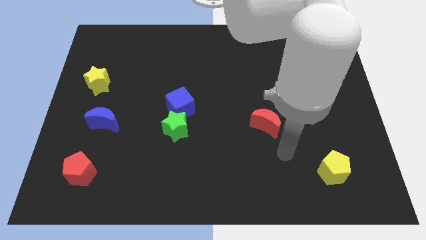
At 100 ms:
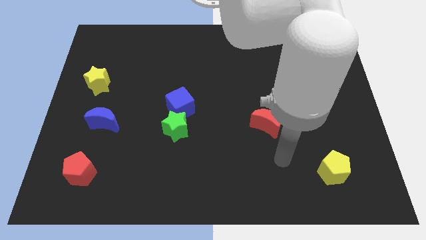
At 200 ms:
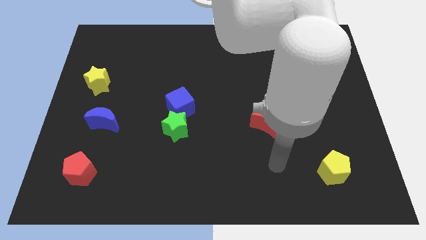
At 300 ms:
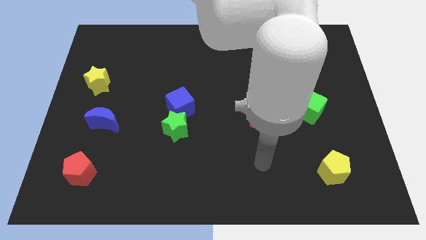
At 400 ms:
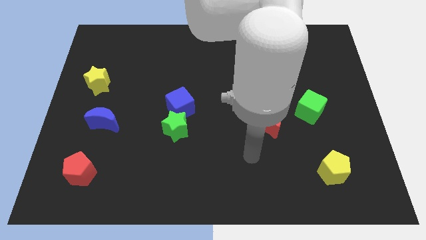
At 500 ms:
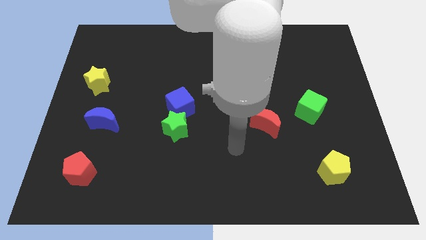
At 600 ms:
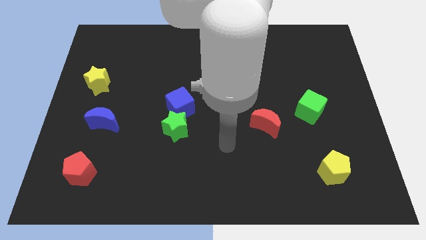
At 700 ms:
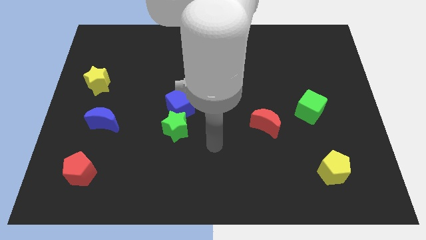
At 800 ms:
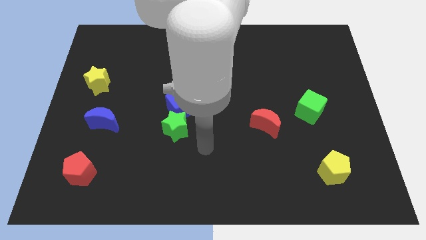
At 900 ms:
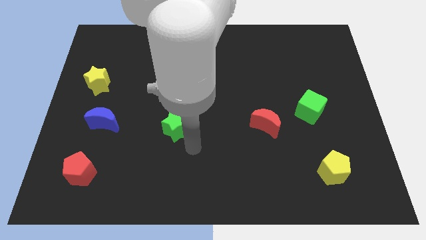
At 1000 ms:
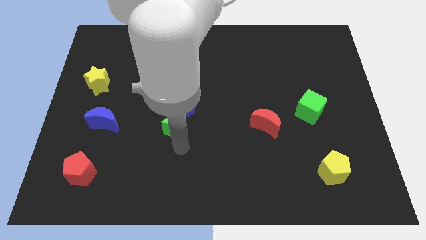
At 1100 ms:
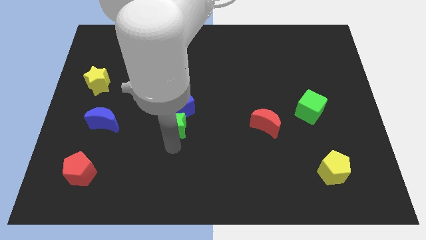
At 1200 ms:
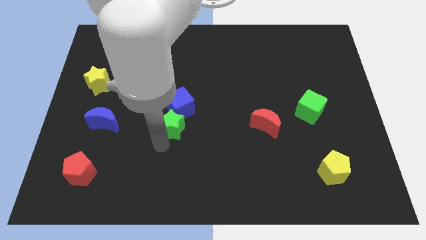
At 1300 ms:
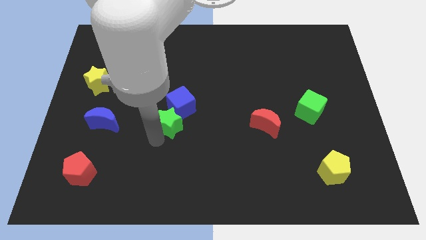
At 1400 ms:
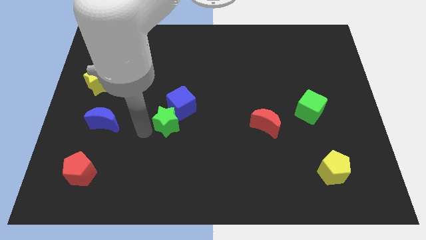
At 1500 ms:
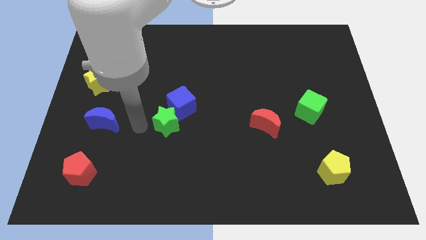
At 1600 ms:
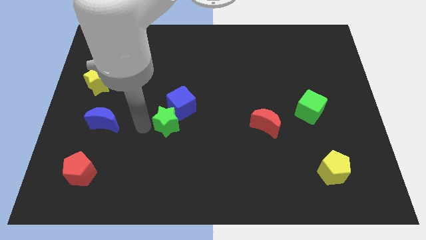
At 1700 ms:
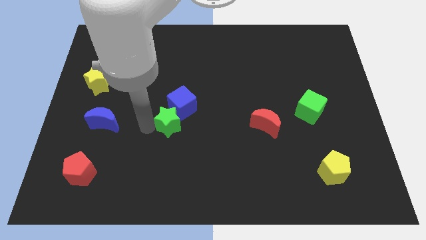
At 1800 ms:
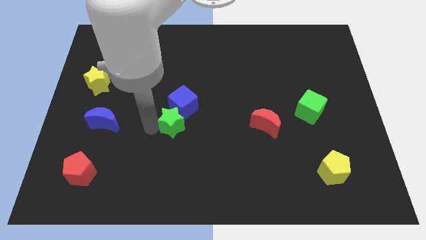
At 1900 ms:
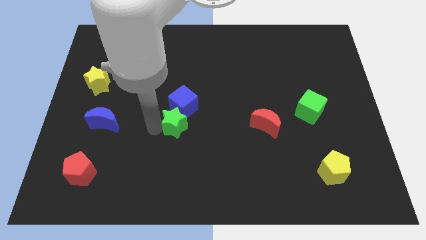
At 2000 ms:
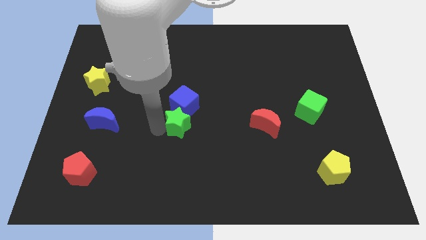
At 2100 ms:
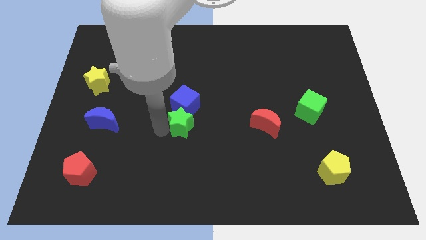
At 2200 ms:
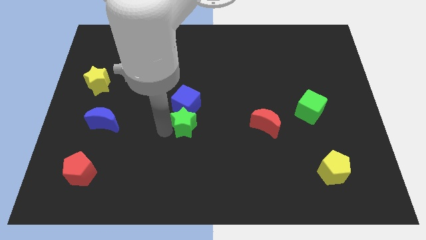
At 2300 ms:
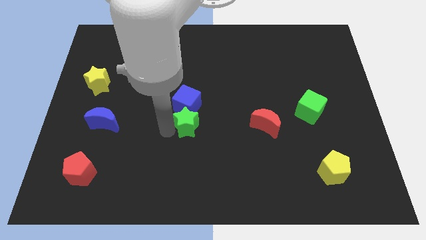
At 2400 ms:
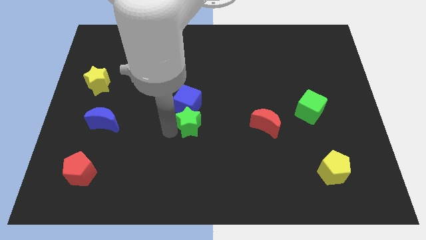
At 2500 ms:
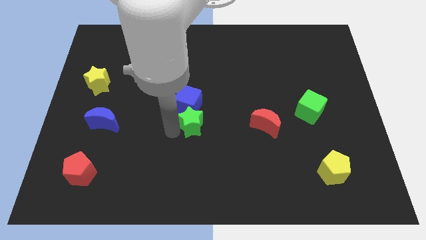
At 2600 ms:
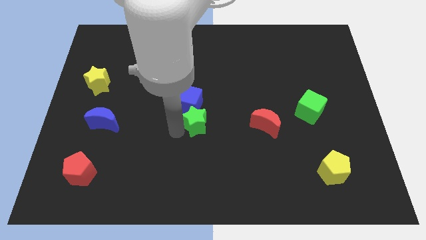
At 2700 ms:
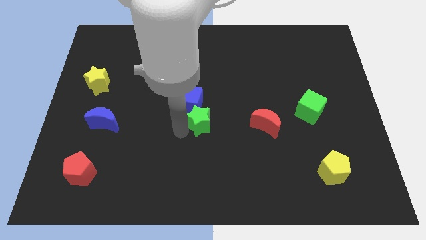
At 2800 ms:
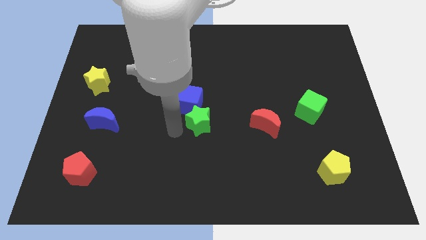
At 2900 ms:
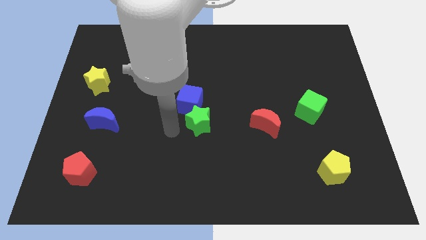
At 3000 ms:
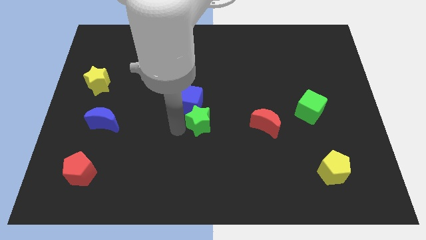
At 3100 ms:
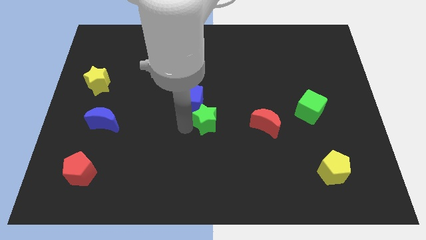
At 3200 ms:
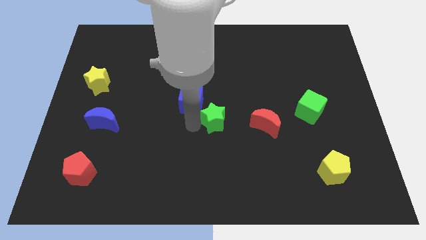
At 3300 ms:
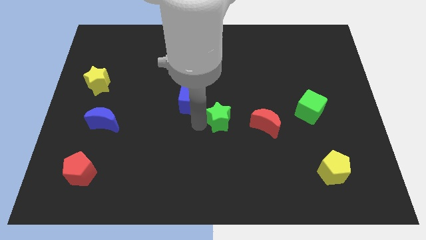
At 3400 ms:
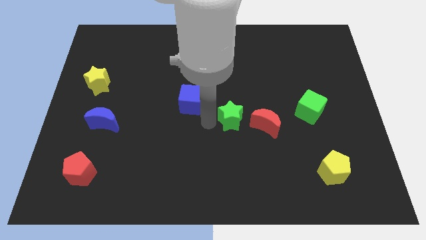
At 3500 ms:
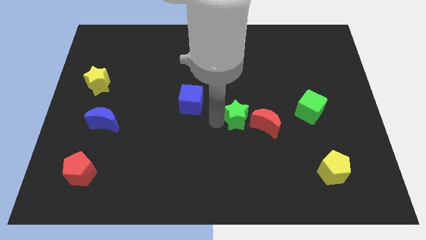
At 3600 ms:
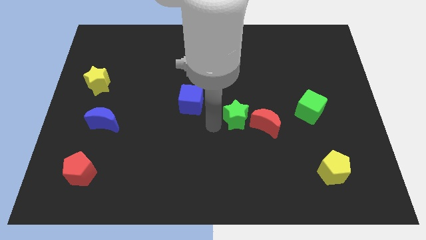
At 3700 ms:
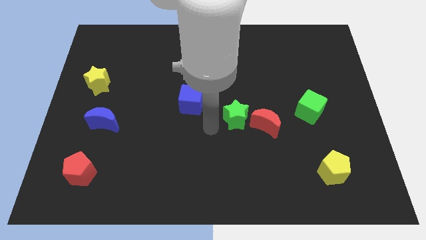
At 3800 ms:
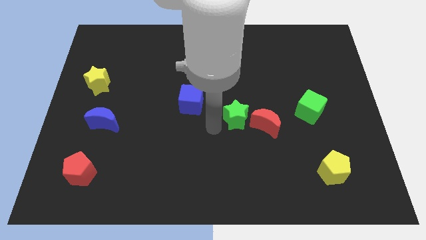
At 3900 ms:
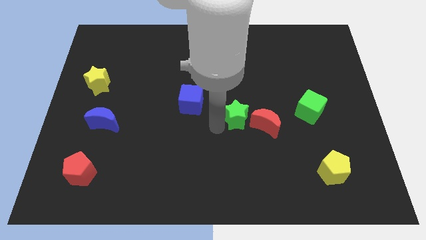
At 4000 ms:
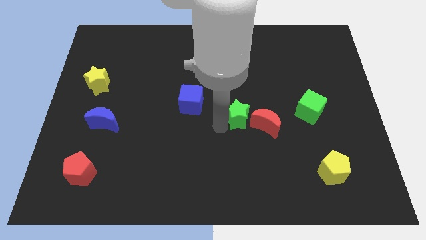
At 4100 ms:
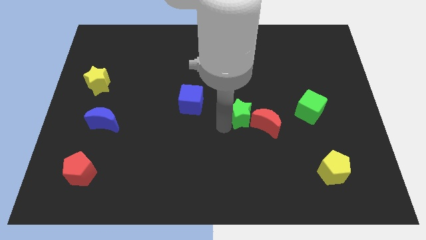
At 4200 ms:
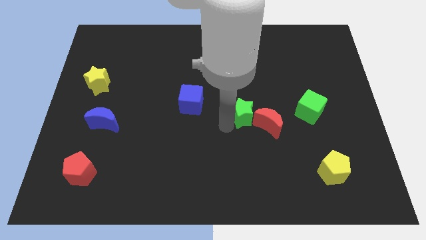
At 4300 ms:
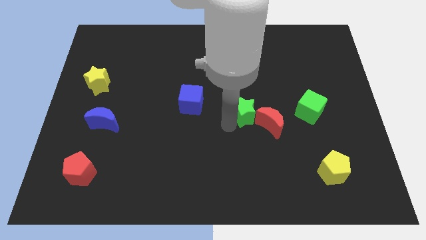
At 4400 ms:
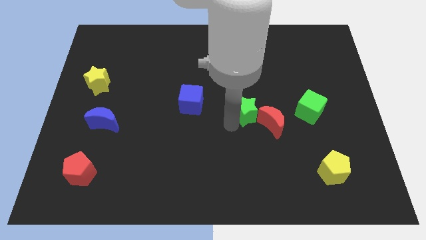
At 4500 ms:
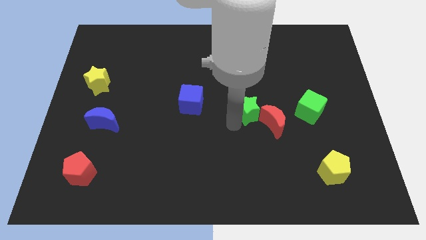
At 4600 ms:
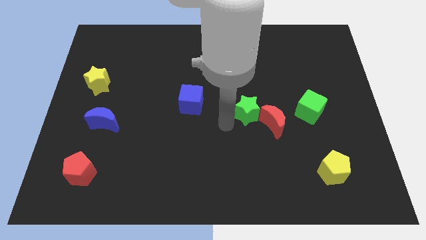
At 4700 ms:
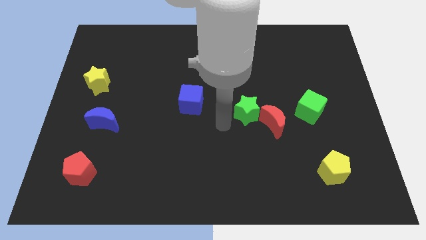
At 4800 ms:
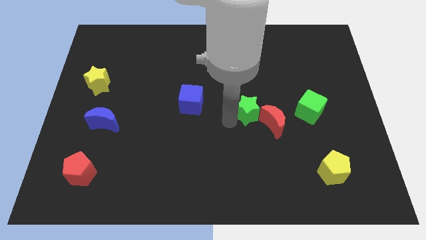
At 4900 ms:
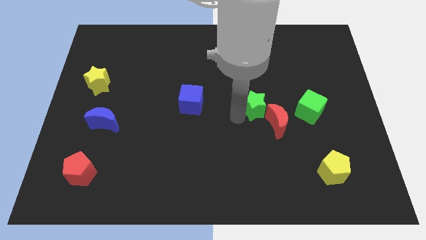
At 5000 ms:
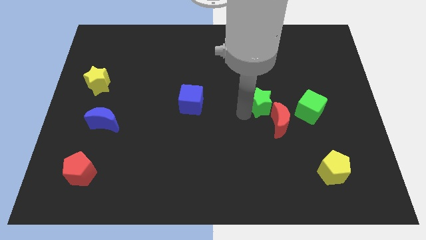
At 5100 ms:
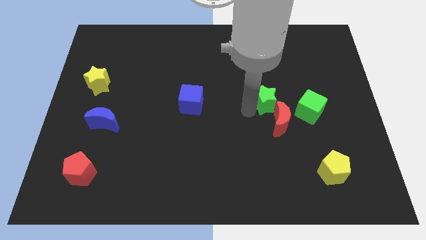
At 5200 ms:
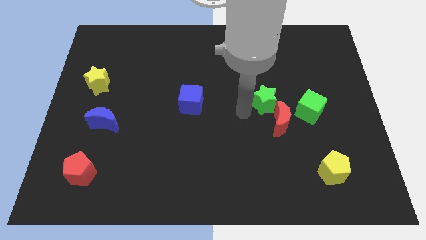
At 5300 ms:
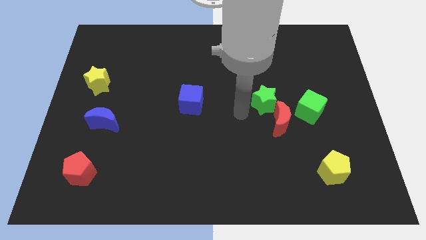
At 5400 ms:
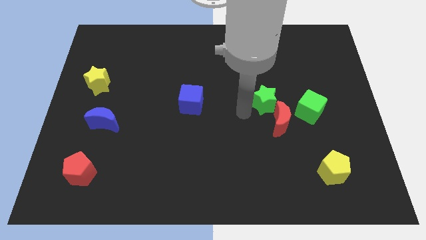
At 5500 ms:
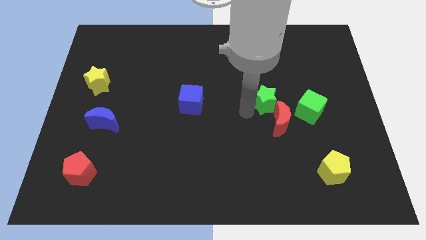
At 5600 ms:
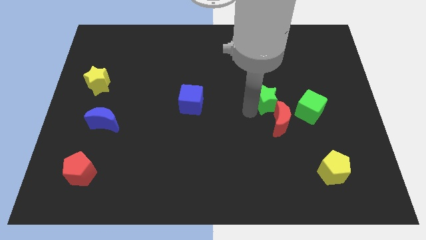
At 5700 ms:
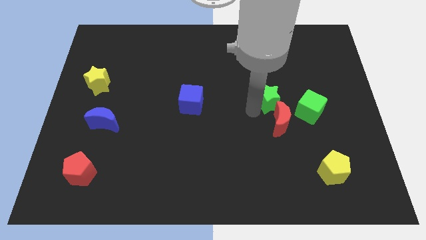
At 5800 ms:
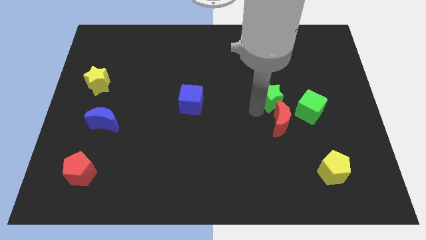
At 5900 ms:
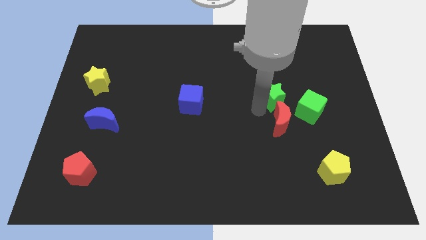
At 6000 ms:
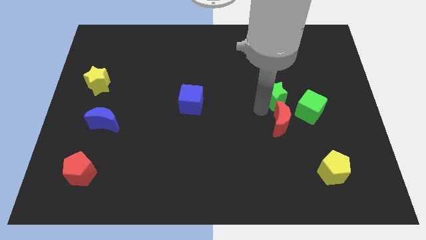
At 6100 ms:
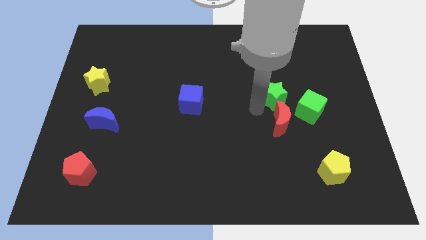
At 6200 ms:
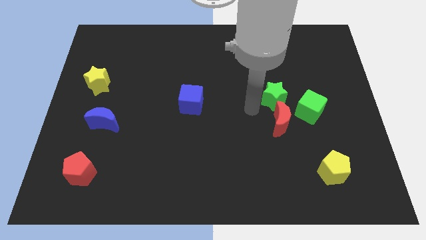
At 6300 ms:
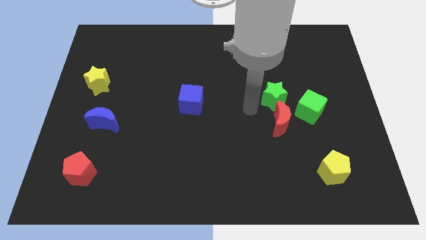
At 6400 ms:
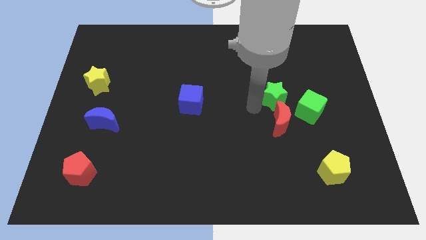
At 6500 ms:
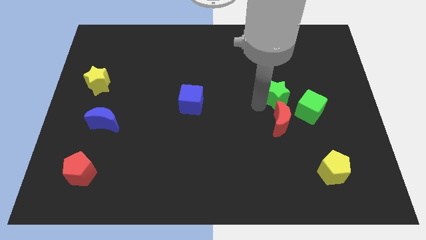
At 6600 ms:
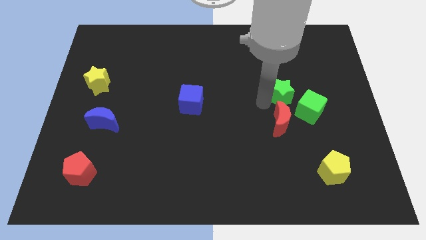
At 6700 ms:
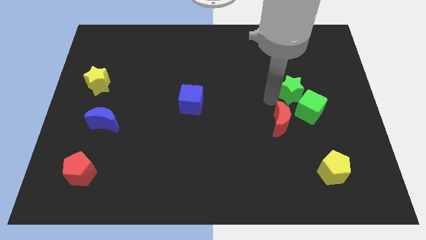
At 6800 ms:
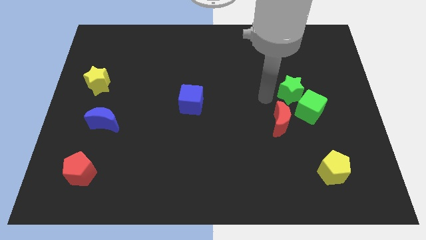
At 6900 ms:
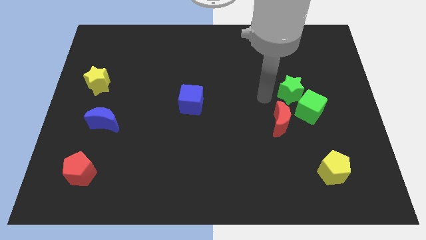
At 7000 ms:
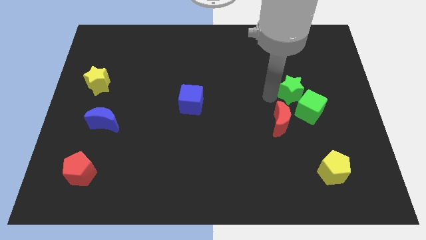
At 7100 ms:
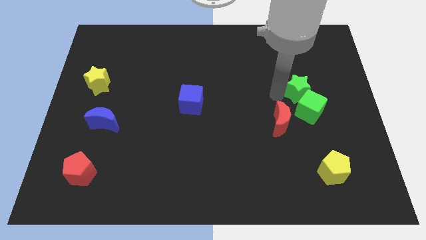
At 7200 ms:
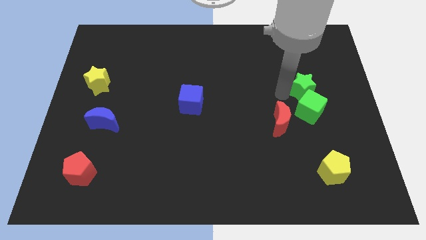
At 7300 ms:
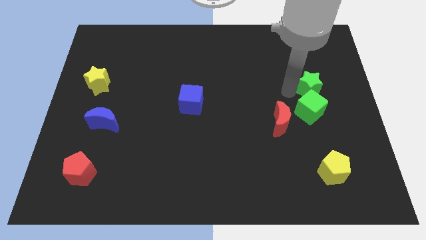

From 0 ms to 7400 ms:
move the green star to the top right side of the green cube
